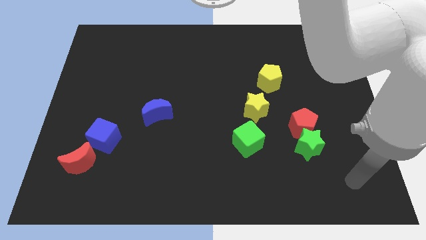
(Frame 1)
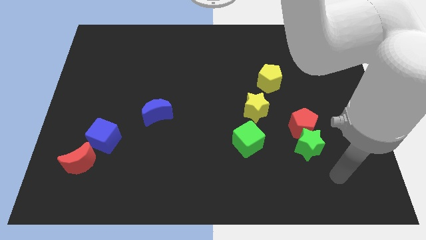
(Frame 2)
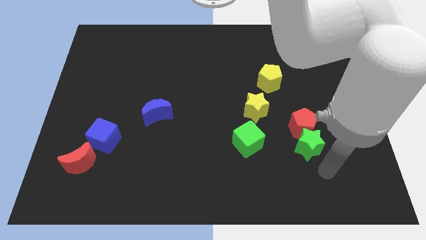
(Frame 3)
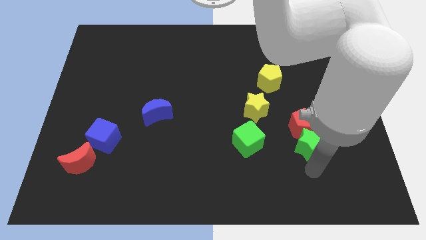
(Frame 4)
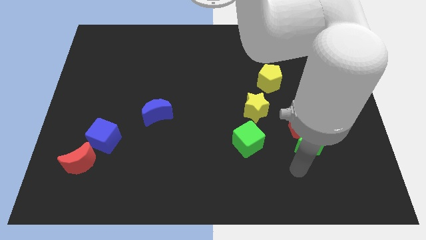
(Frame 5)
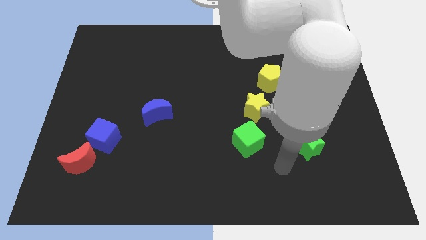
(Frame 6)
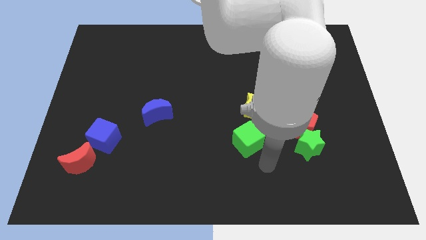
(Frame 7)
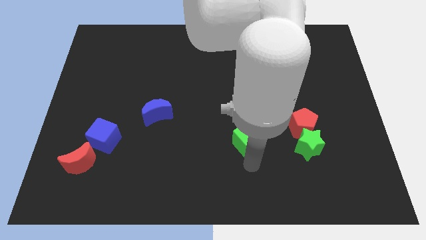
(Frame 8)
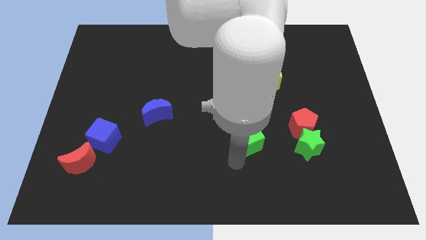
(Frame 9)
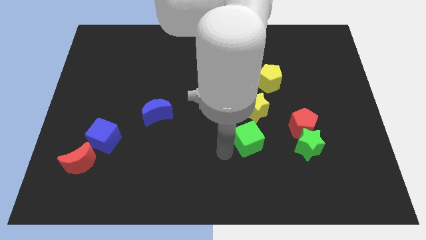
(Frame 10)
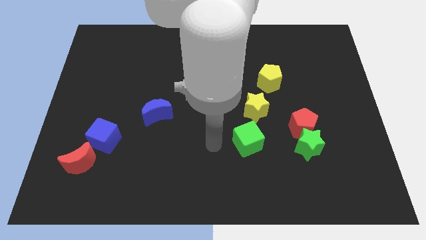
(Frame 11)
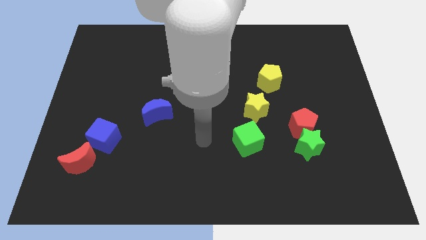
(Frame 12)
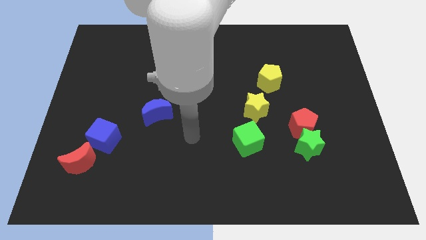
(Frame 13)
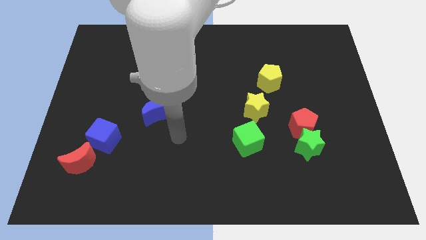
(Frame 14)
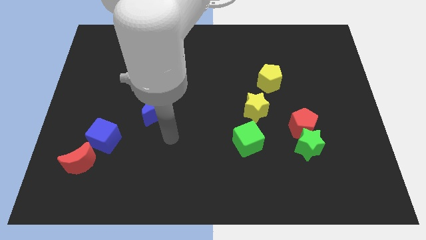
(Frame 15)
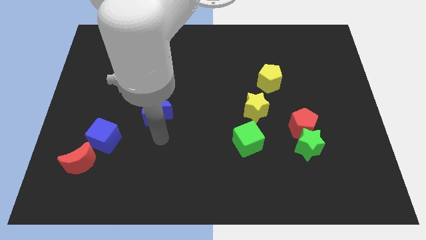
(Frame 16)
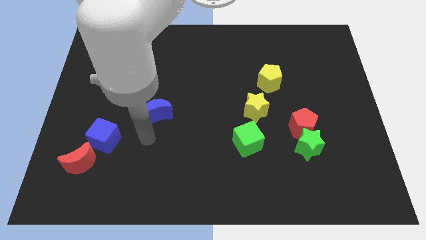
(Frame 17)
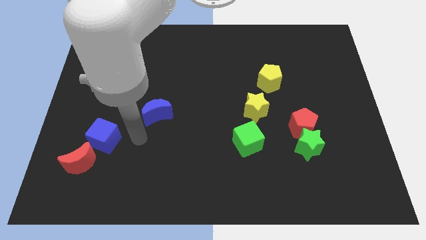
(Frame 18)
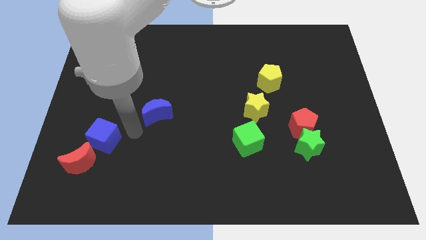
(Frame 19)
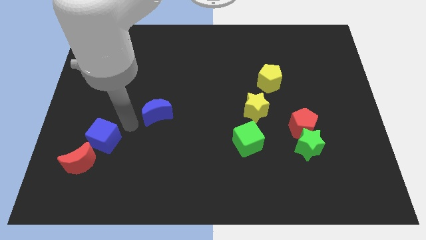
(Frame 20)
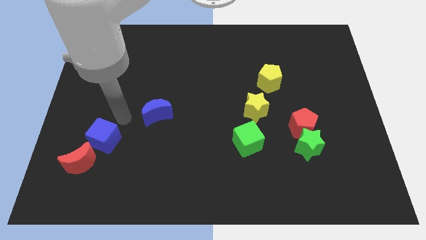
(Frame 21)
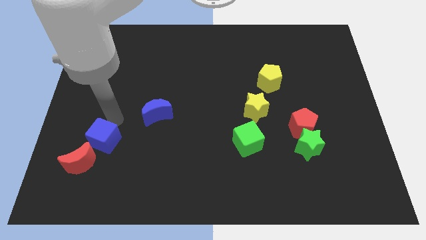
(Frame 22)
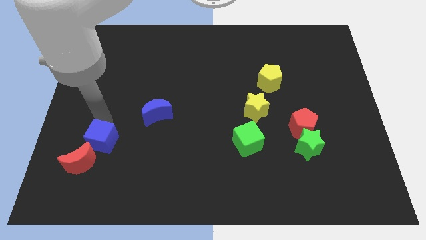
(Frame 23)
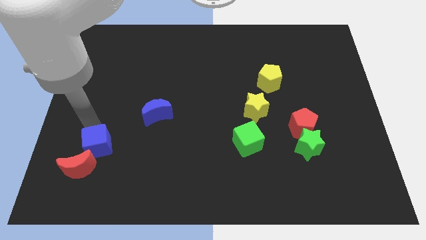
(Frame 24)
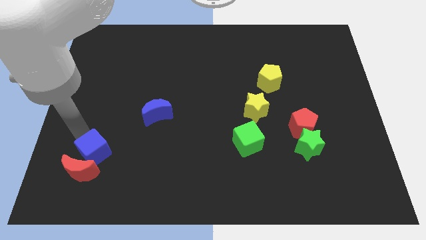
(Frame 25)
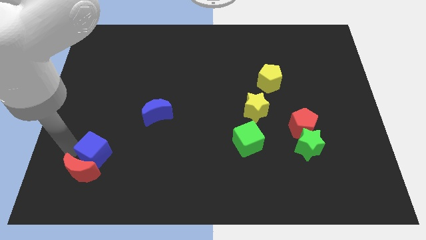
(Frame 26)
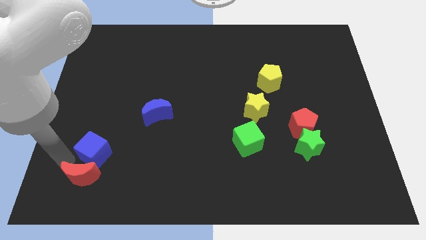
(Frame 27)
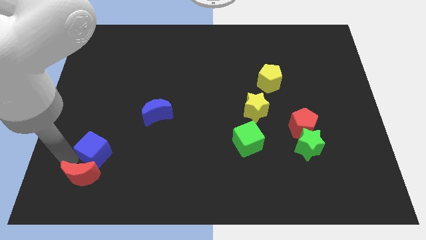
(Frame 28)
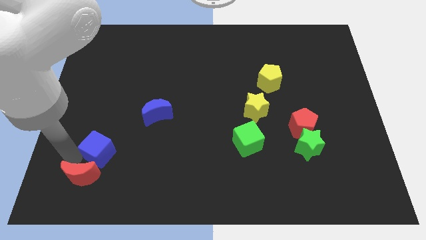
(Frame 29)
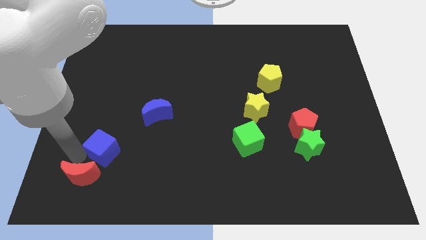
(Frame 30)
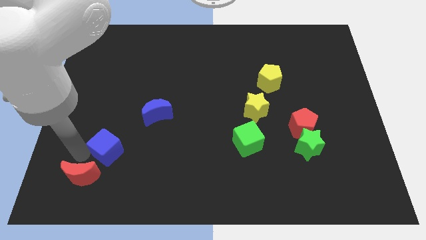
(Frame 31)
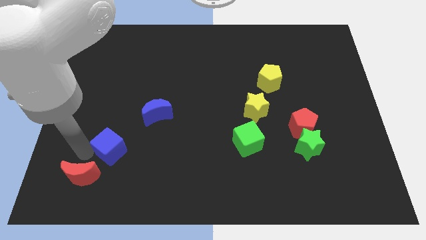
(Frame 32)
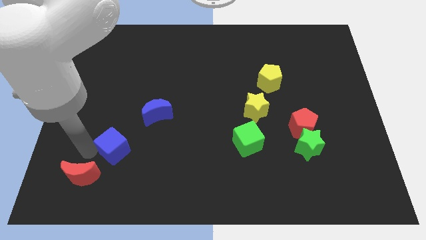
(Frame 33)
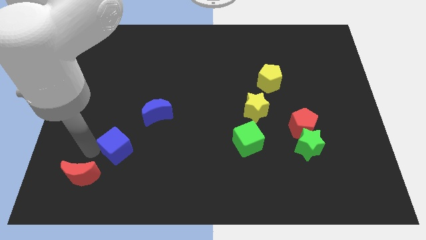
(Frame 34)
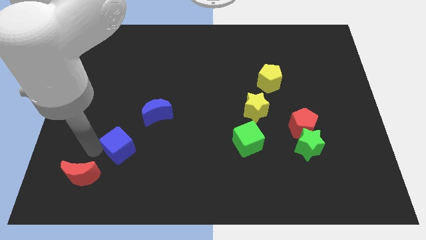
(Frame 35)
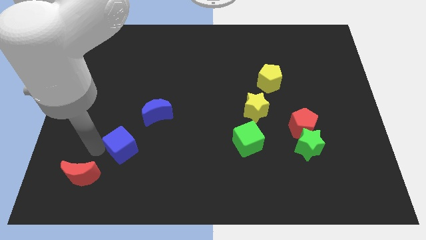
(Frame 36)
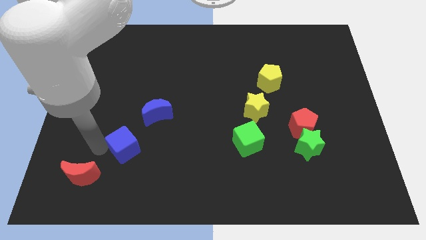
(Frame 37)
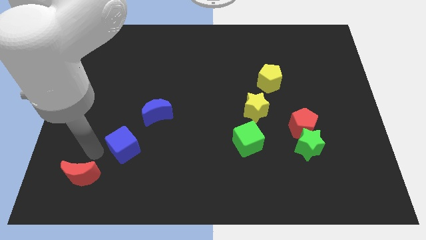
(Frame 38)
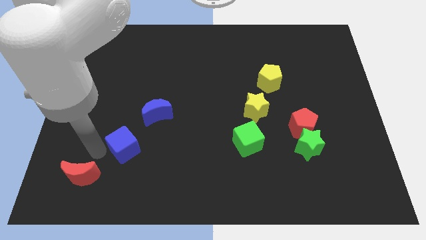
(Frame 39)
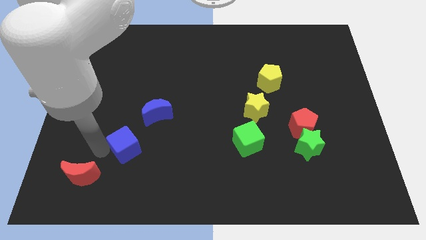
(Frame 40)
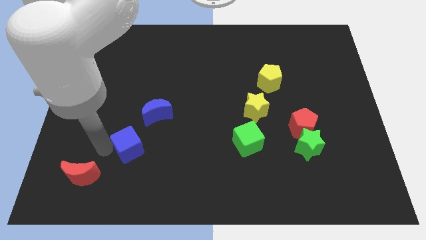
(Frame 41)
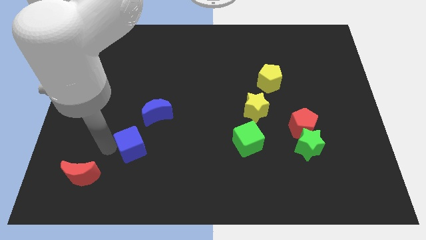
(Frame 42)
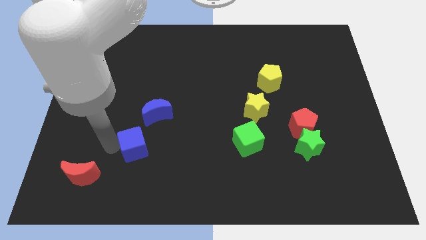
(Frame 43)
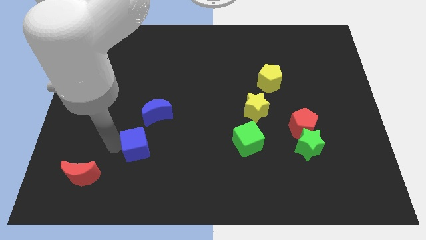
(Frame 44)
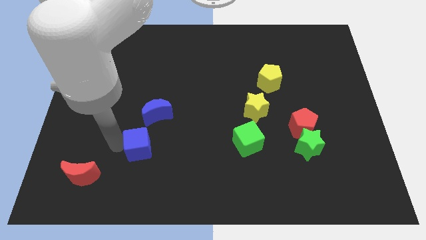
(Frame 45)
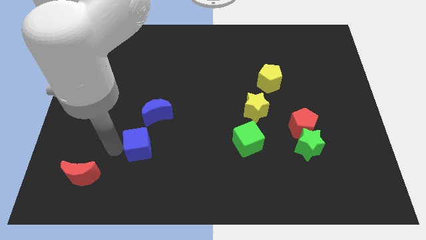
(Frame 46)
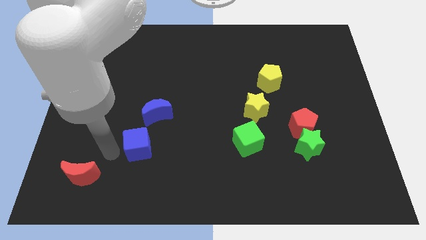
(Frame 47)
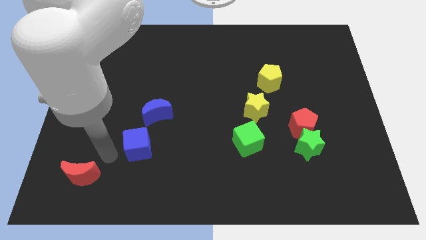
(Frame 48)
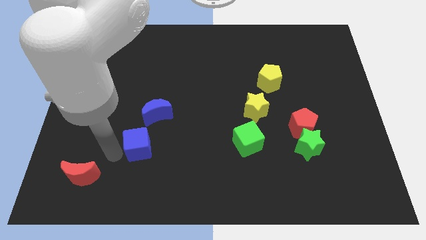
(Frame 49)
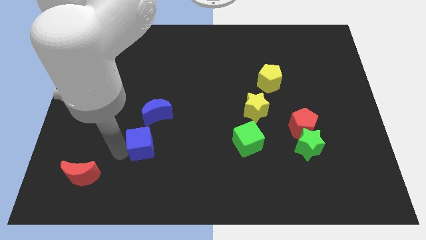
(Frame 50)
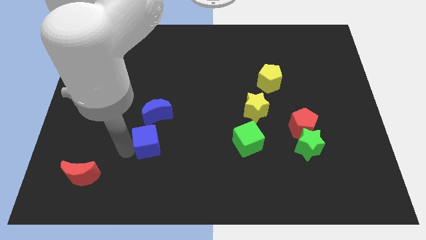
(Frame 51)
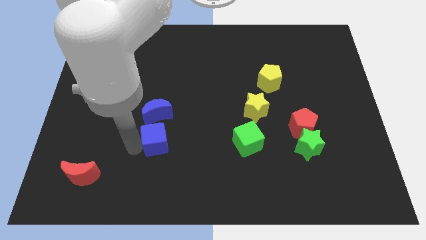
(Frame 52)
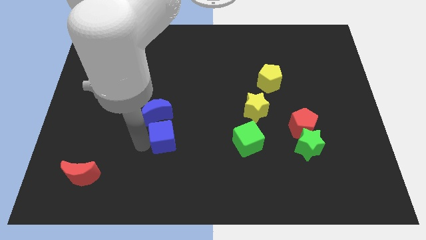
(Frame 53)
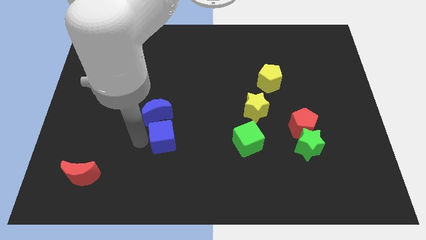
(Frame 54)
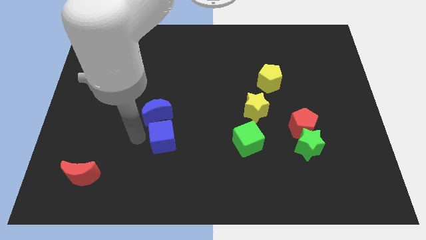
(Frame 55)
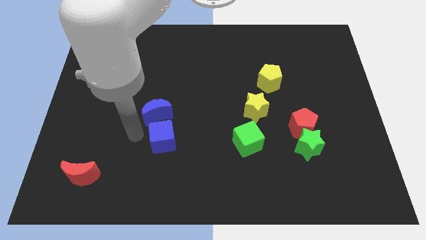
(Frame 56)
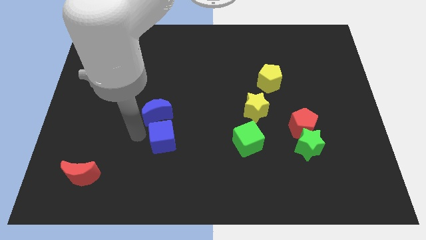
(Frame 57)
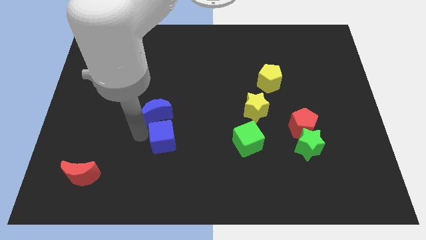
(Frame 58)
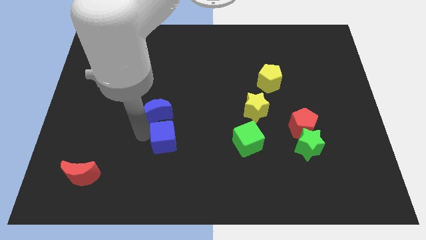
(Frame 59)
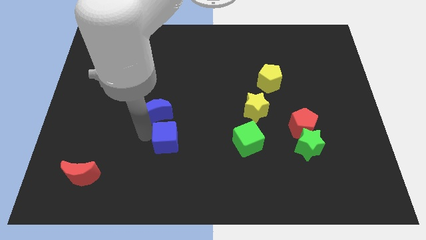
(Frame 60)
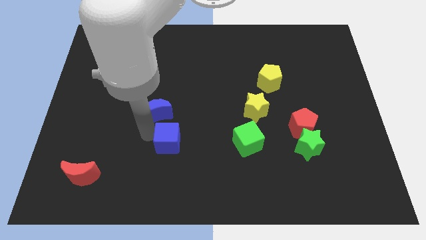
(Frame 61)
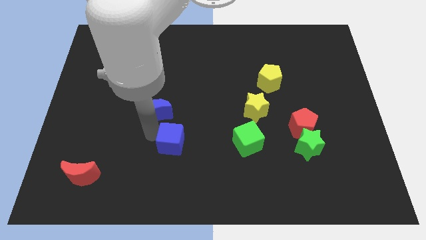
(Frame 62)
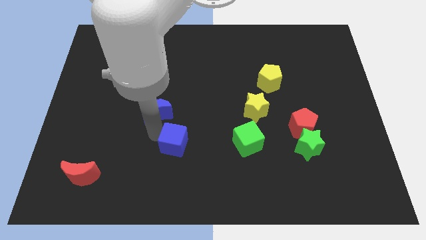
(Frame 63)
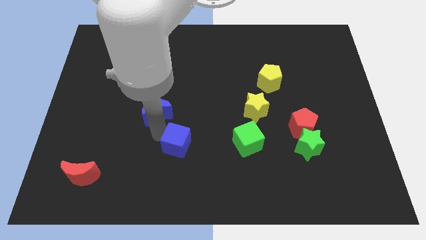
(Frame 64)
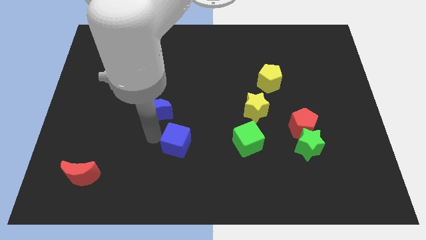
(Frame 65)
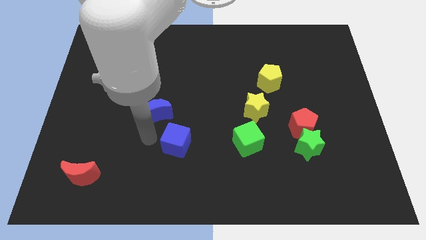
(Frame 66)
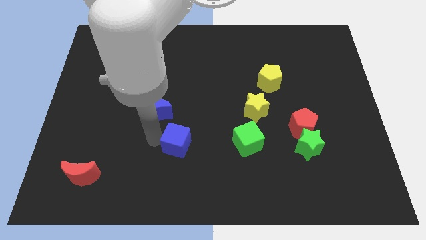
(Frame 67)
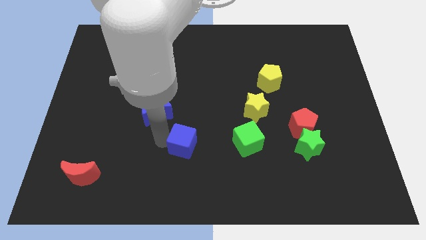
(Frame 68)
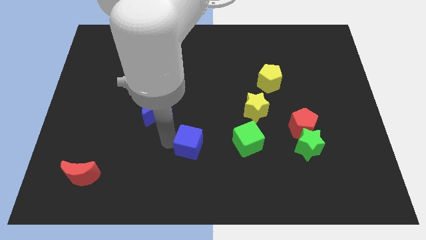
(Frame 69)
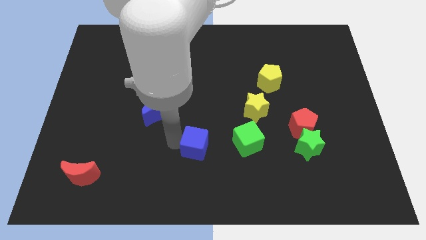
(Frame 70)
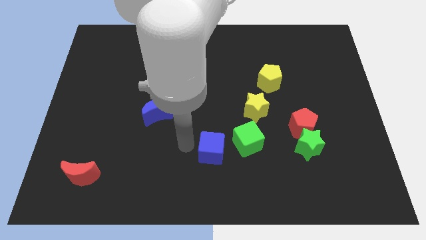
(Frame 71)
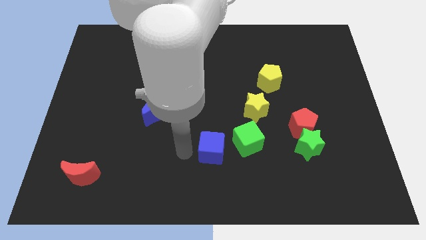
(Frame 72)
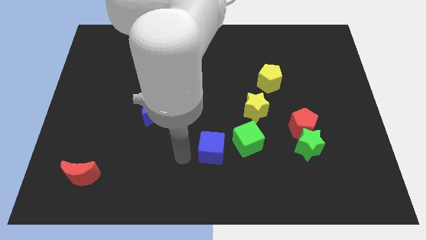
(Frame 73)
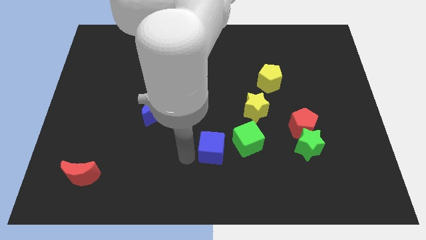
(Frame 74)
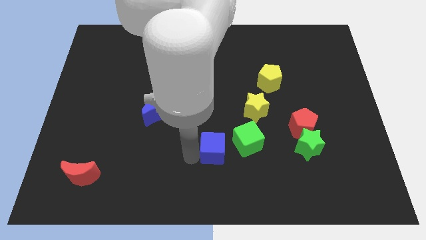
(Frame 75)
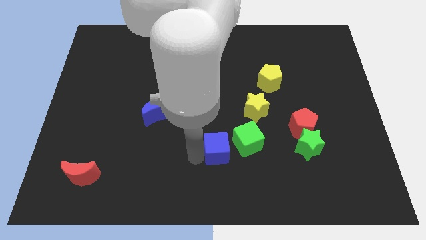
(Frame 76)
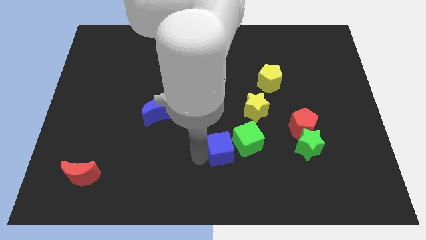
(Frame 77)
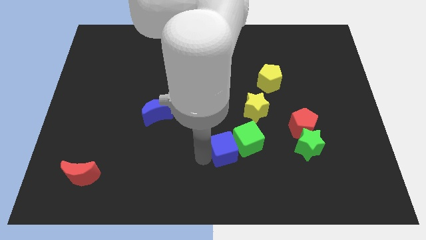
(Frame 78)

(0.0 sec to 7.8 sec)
put the blue cube towards the green cube
